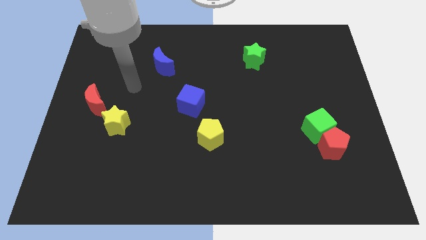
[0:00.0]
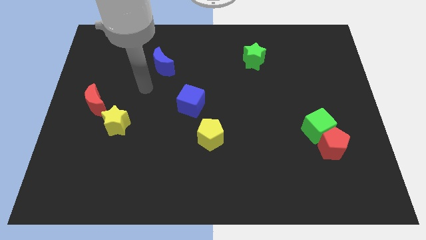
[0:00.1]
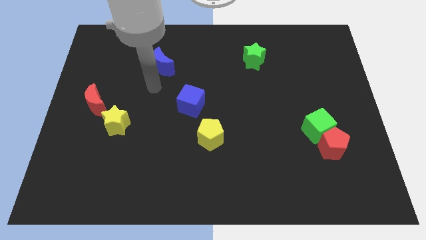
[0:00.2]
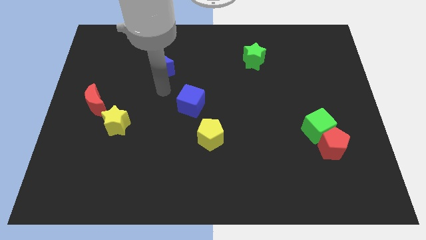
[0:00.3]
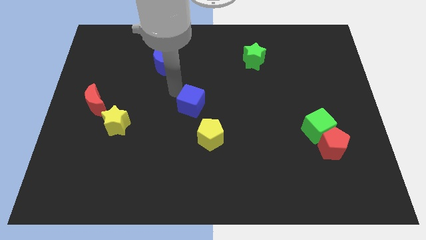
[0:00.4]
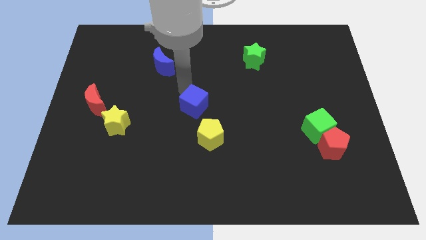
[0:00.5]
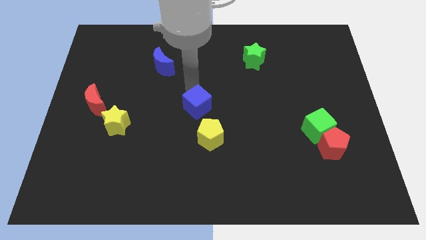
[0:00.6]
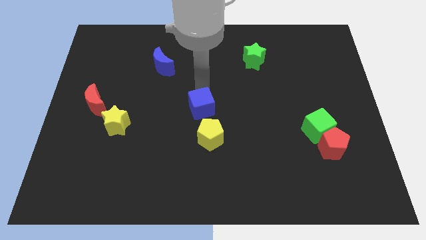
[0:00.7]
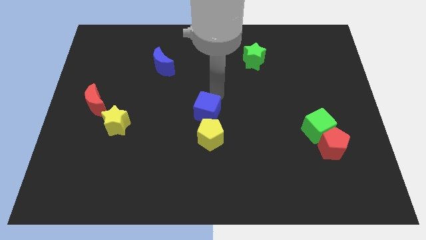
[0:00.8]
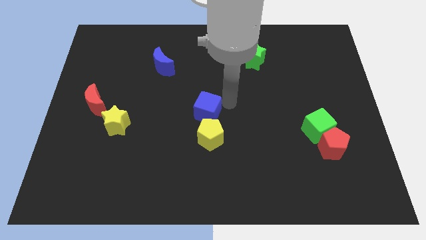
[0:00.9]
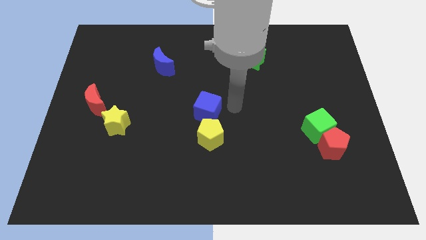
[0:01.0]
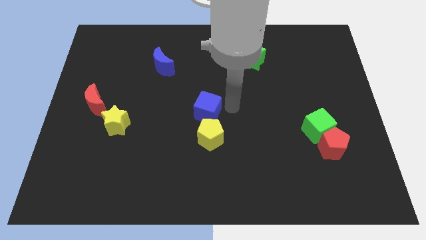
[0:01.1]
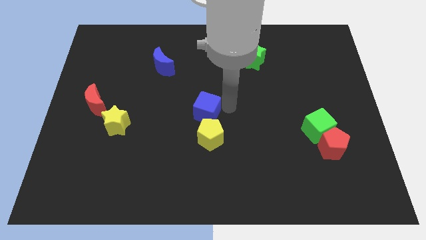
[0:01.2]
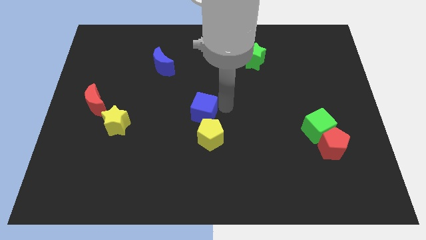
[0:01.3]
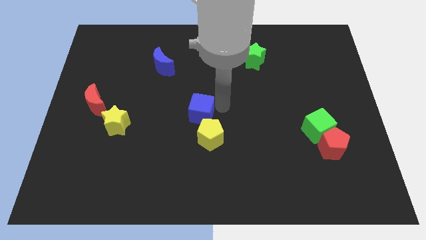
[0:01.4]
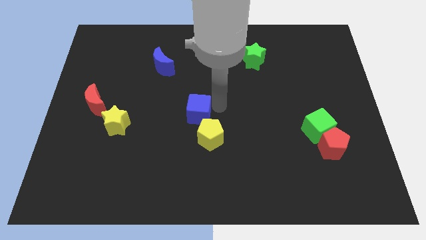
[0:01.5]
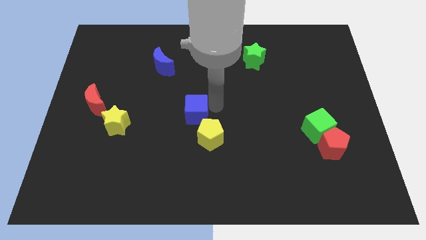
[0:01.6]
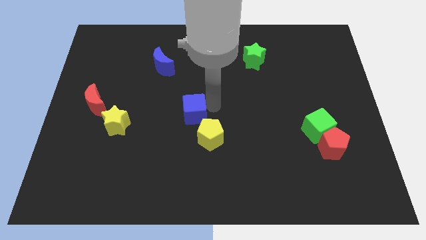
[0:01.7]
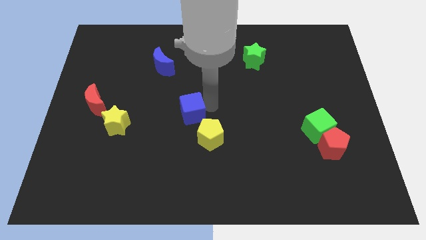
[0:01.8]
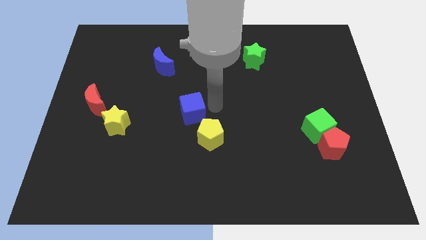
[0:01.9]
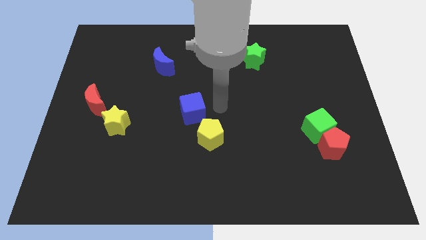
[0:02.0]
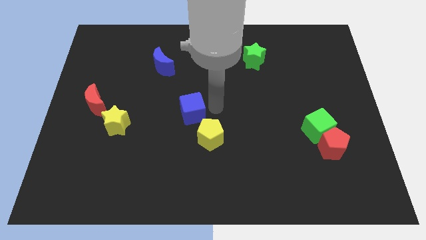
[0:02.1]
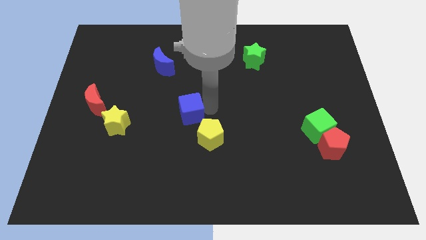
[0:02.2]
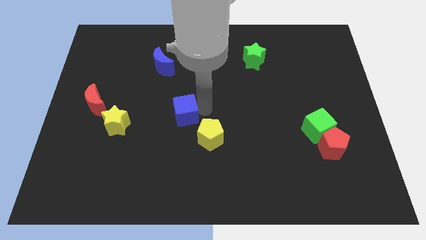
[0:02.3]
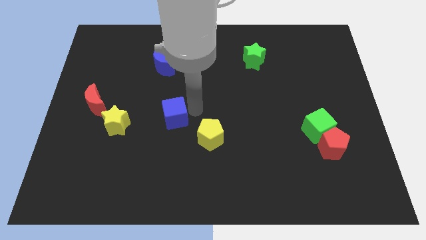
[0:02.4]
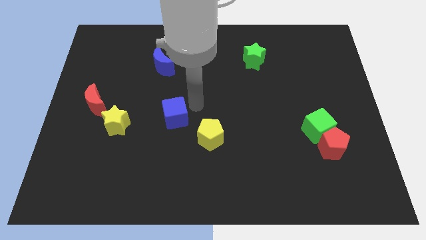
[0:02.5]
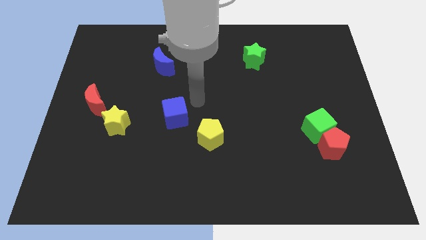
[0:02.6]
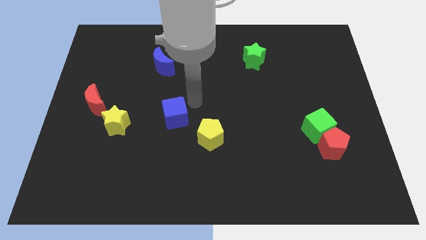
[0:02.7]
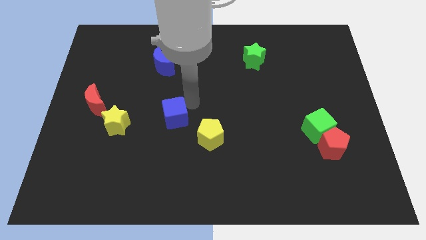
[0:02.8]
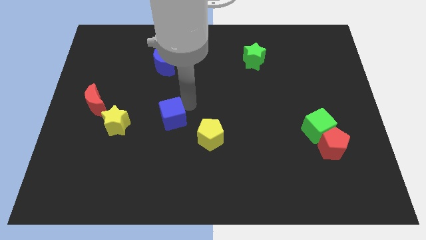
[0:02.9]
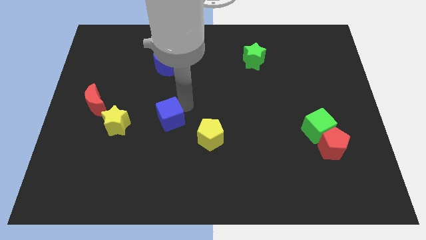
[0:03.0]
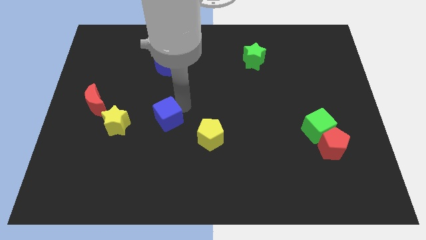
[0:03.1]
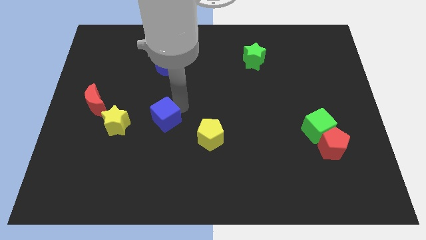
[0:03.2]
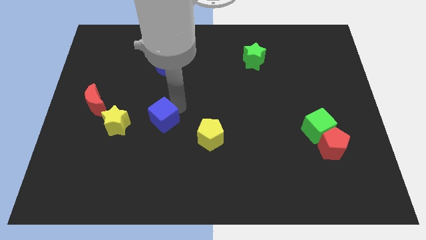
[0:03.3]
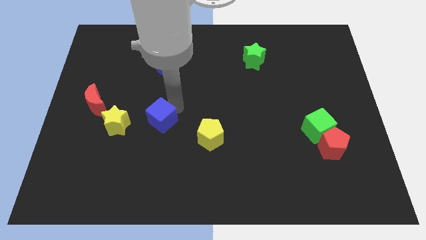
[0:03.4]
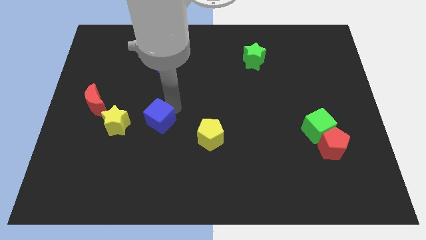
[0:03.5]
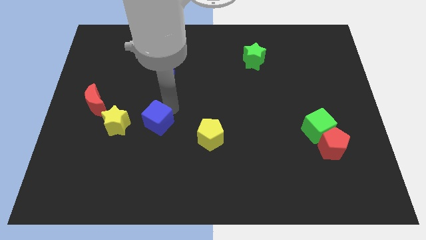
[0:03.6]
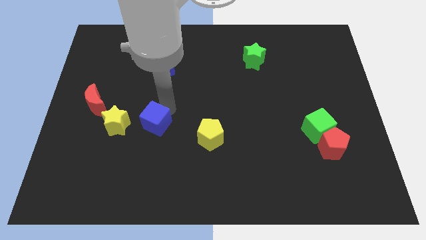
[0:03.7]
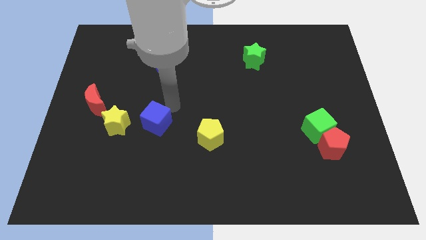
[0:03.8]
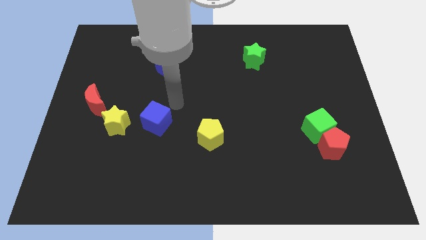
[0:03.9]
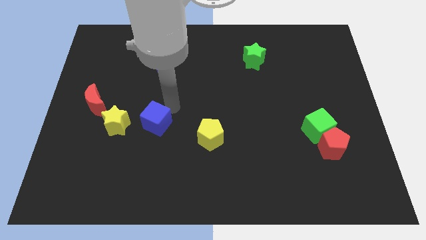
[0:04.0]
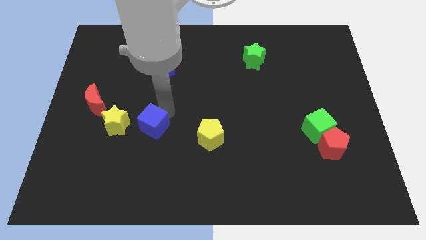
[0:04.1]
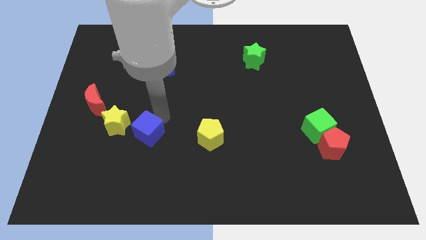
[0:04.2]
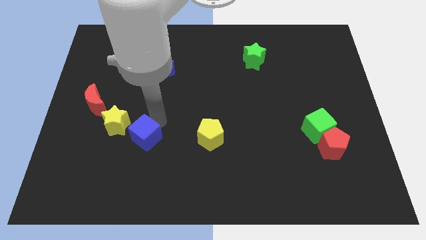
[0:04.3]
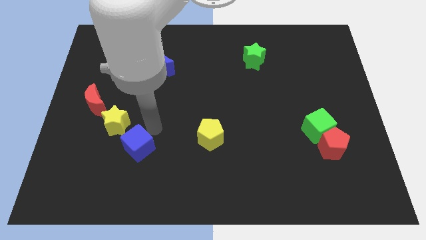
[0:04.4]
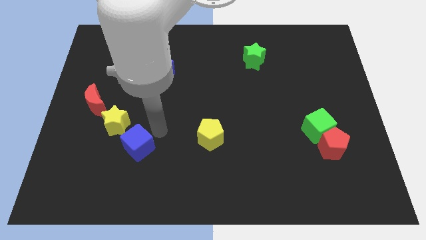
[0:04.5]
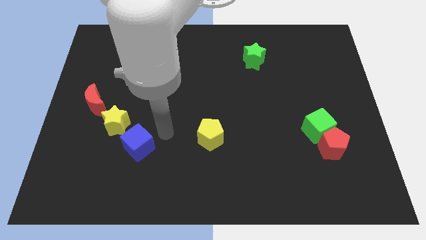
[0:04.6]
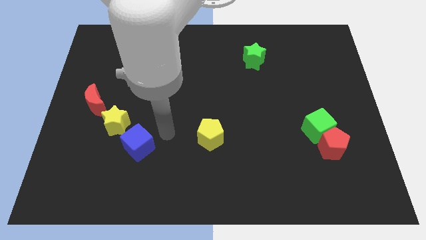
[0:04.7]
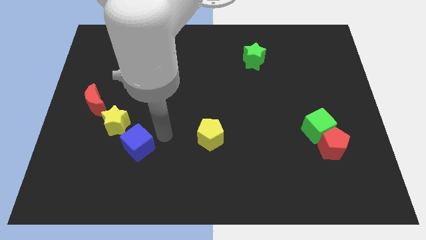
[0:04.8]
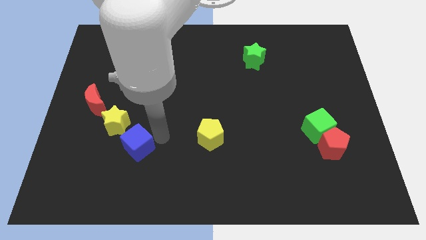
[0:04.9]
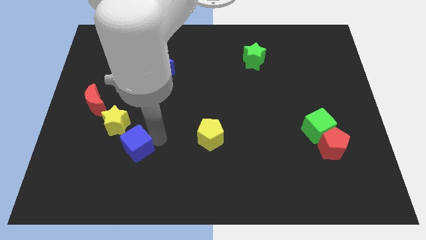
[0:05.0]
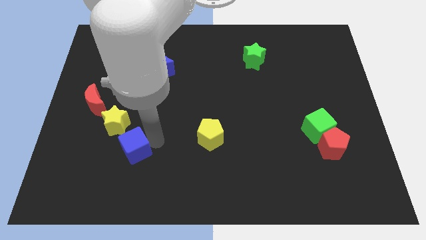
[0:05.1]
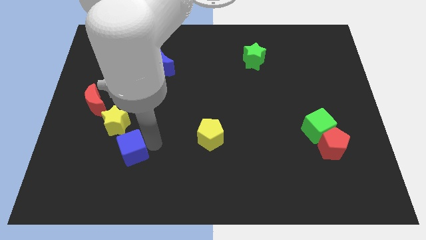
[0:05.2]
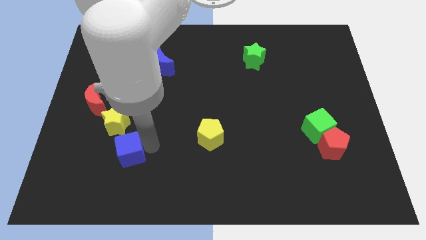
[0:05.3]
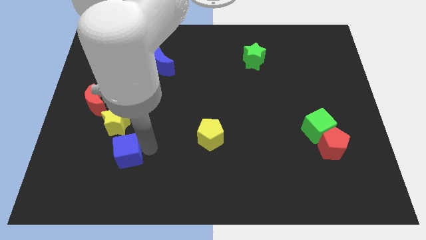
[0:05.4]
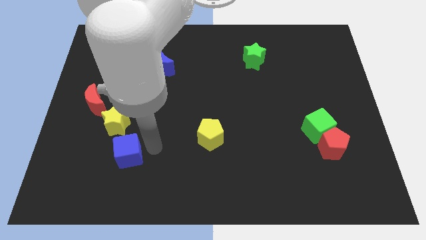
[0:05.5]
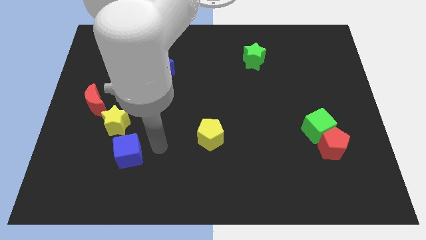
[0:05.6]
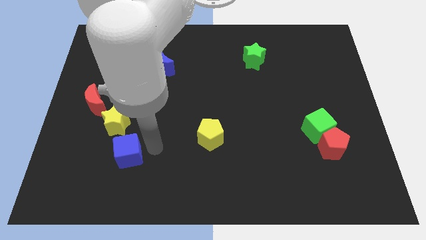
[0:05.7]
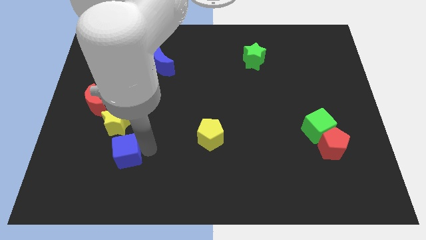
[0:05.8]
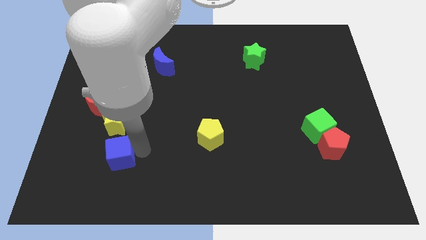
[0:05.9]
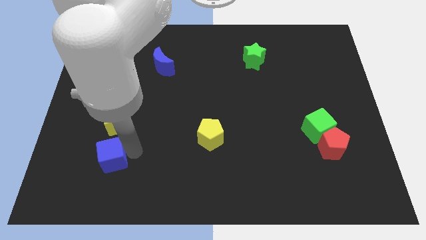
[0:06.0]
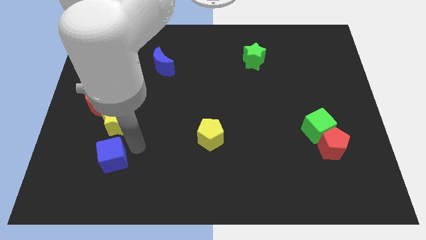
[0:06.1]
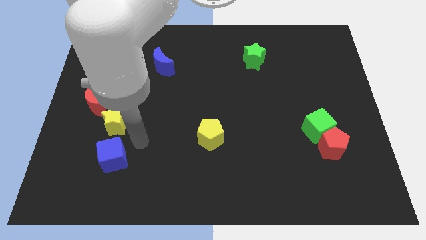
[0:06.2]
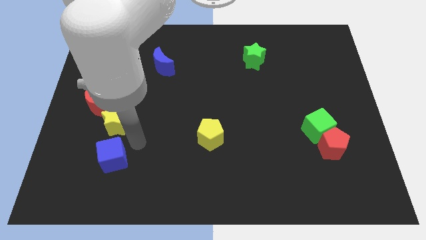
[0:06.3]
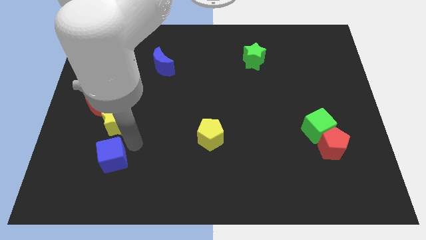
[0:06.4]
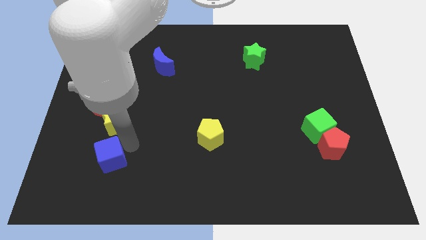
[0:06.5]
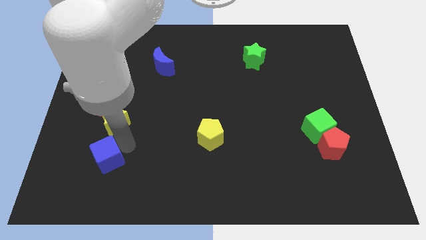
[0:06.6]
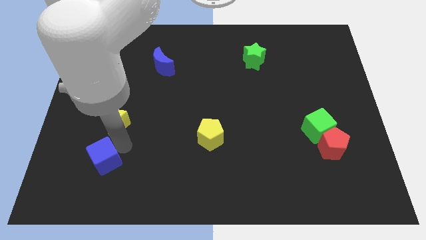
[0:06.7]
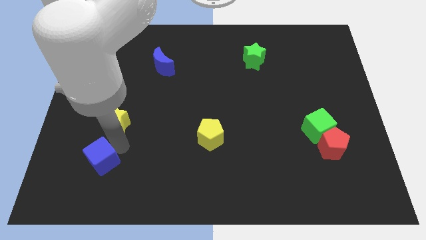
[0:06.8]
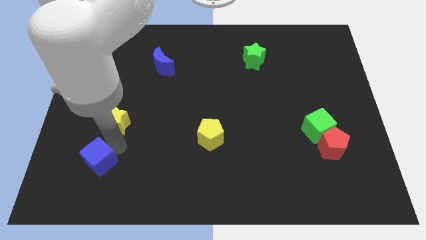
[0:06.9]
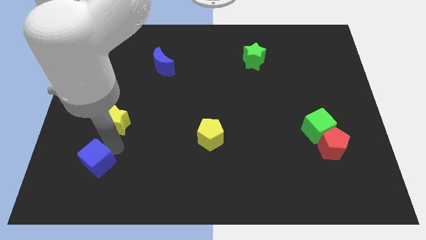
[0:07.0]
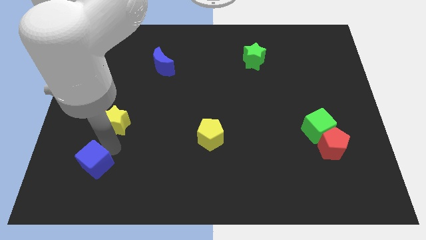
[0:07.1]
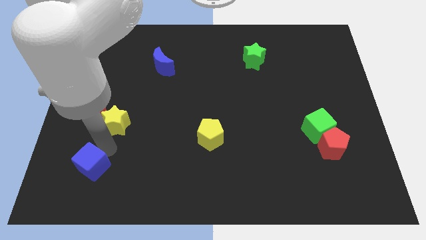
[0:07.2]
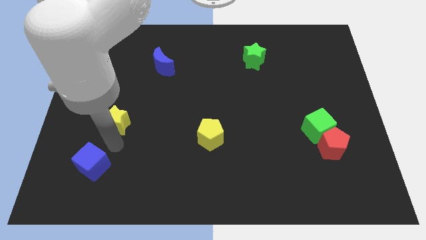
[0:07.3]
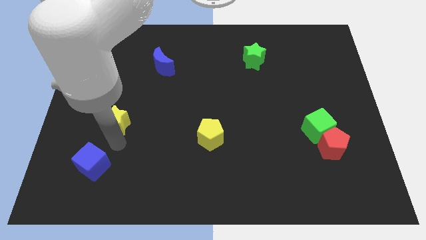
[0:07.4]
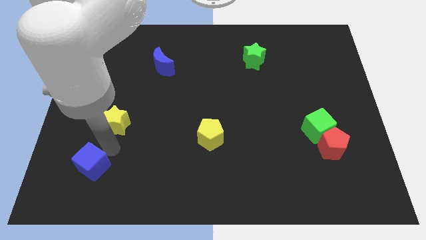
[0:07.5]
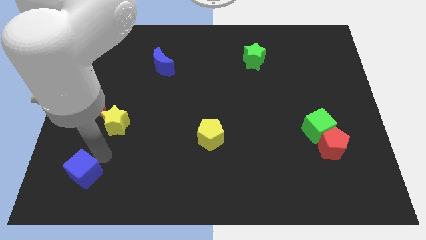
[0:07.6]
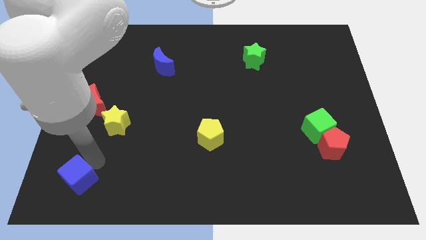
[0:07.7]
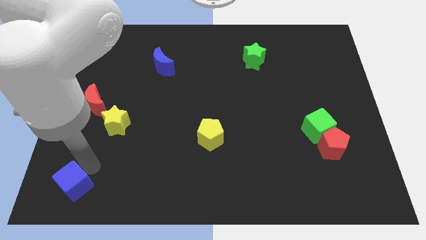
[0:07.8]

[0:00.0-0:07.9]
put the blue cube to the bottom left corner

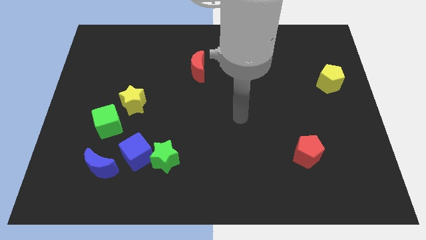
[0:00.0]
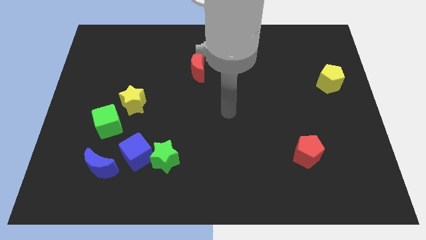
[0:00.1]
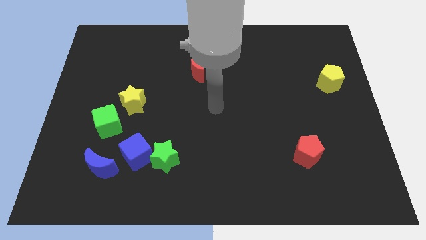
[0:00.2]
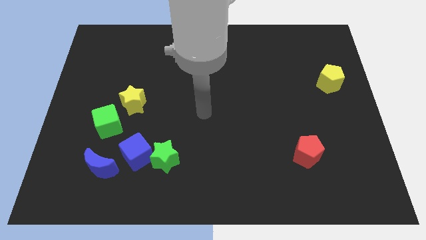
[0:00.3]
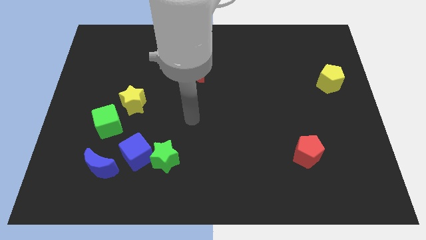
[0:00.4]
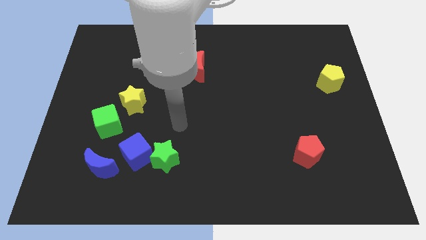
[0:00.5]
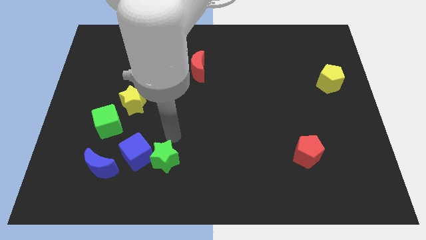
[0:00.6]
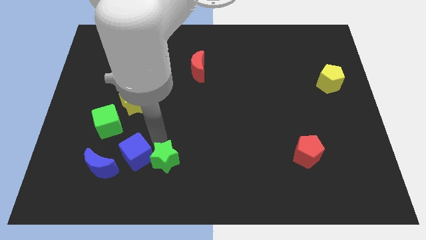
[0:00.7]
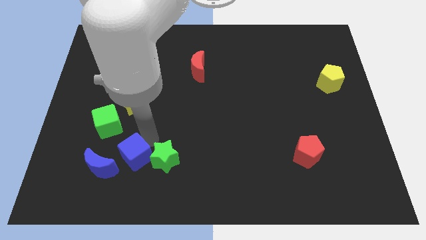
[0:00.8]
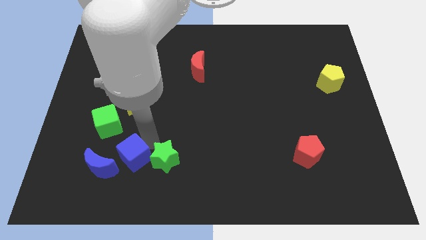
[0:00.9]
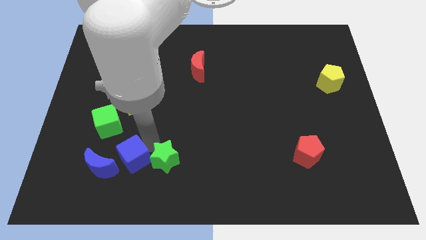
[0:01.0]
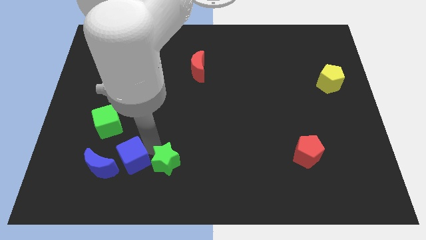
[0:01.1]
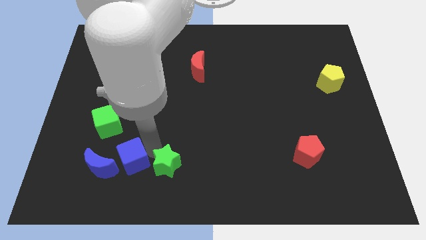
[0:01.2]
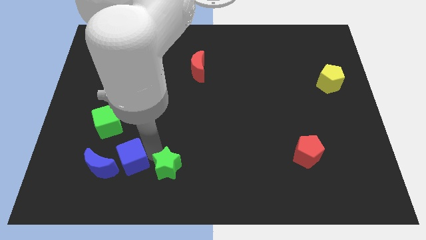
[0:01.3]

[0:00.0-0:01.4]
move the green star to the bottom side
